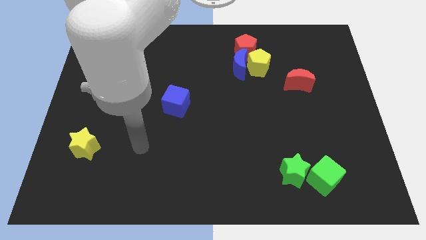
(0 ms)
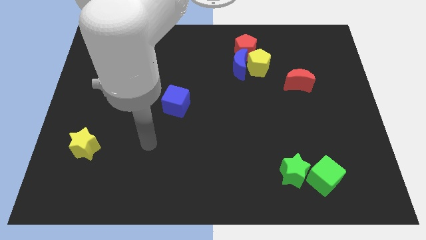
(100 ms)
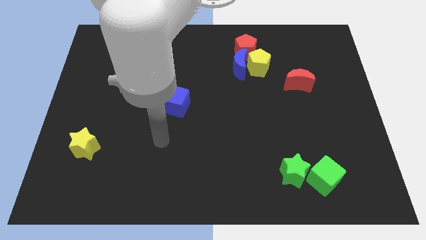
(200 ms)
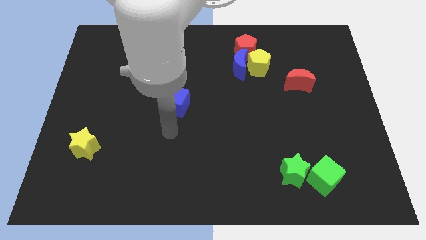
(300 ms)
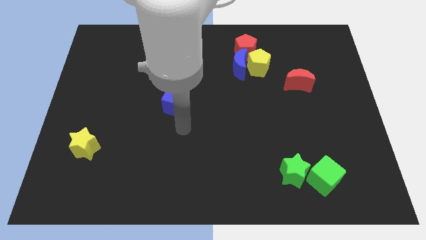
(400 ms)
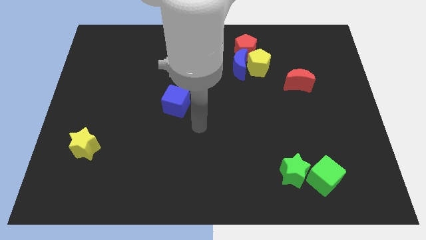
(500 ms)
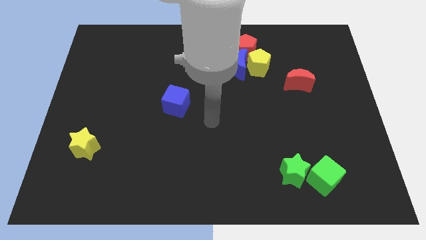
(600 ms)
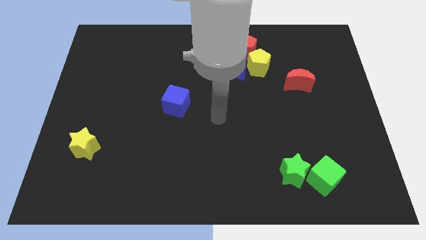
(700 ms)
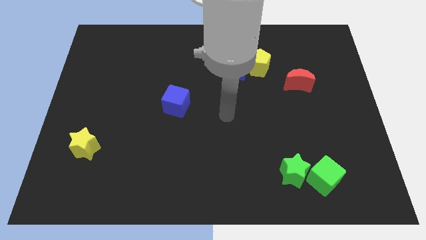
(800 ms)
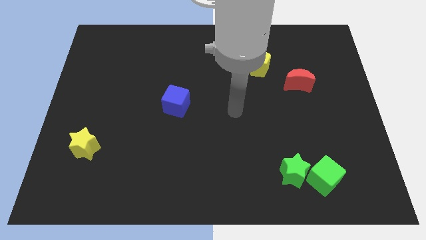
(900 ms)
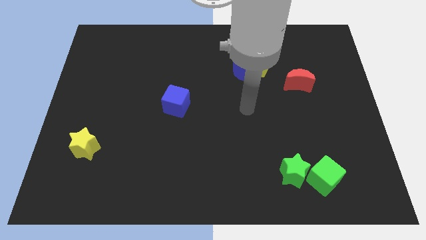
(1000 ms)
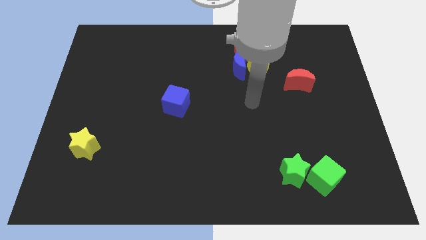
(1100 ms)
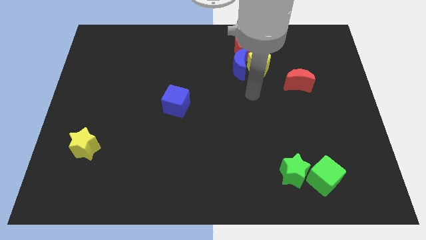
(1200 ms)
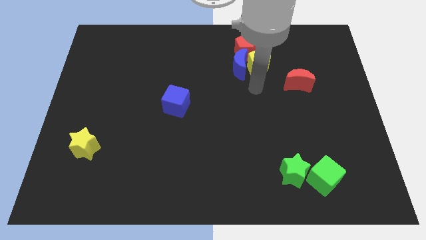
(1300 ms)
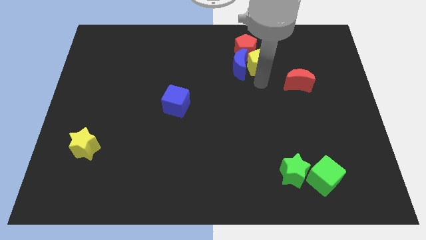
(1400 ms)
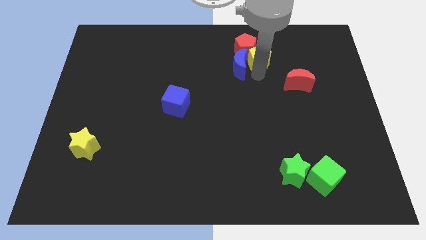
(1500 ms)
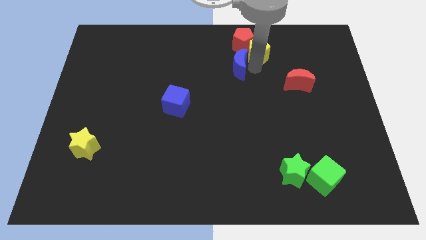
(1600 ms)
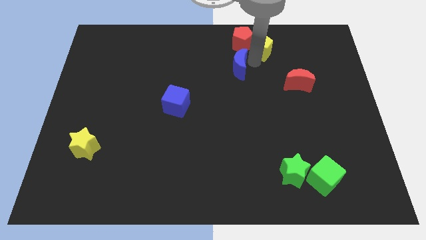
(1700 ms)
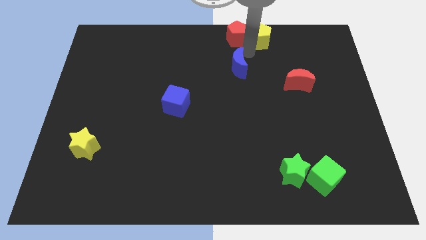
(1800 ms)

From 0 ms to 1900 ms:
move the blue moon away from the yellow pentagon and red pentagon

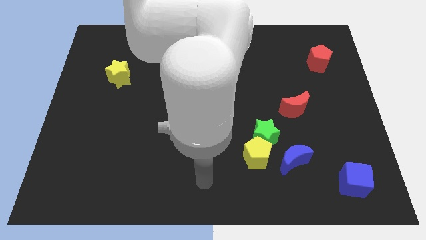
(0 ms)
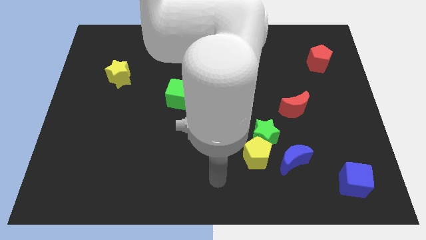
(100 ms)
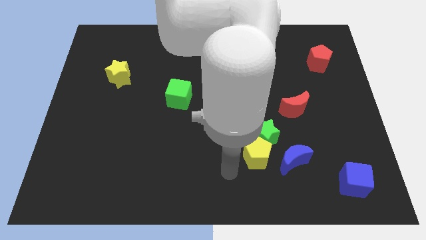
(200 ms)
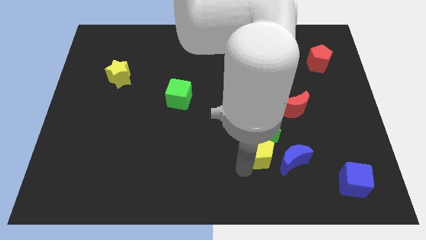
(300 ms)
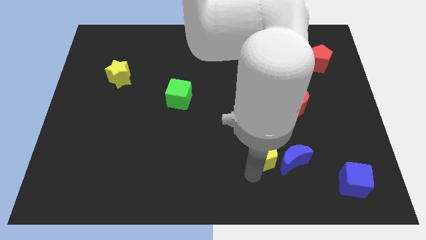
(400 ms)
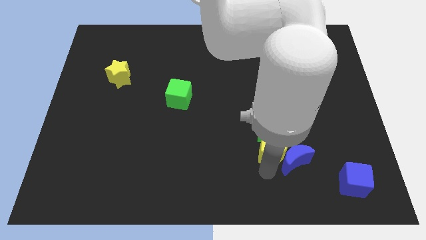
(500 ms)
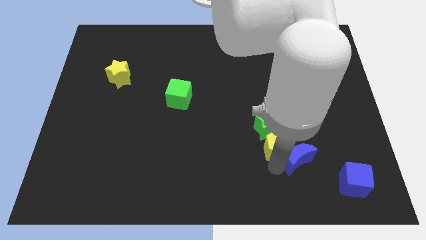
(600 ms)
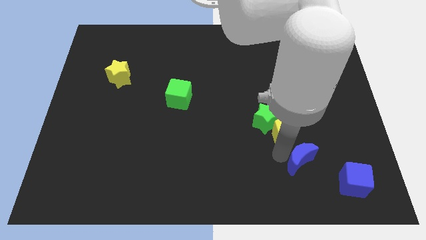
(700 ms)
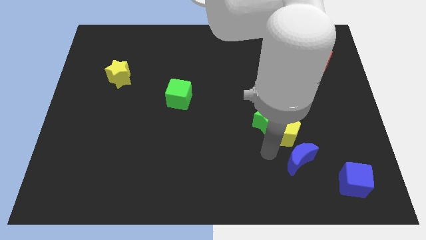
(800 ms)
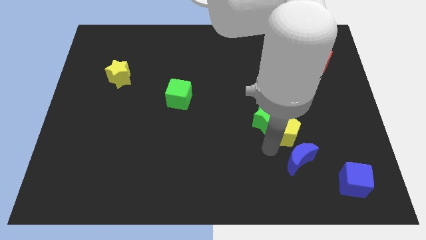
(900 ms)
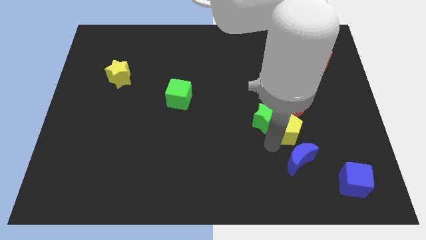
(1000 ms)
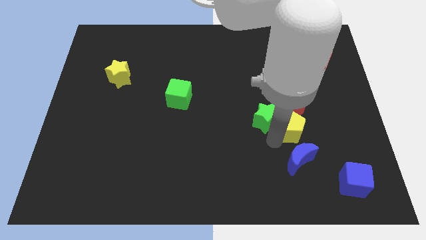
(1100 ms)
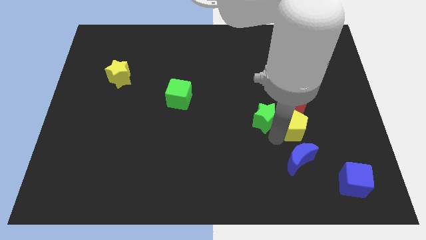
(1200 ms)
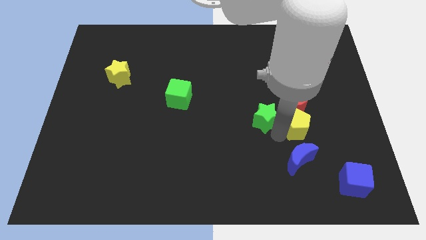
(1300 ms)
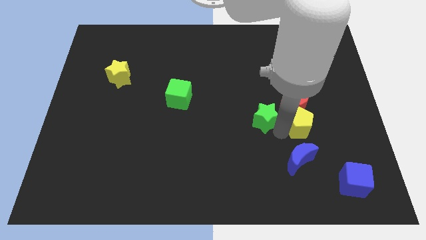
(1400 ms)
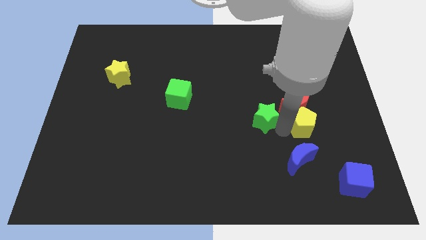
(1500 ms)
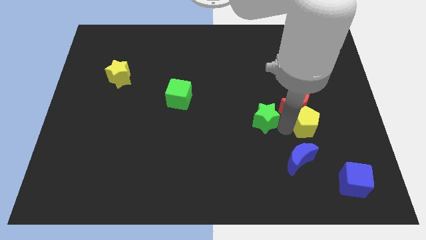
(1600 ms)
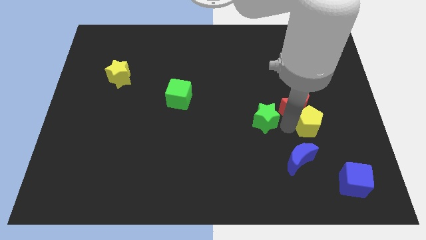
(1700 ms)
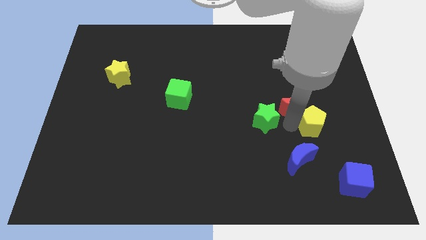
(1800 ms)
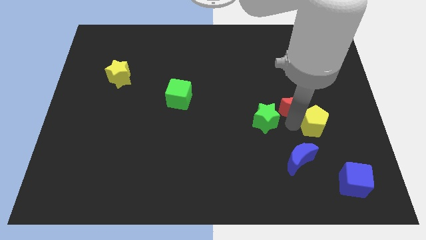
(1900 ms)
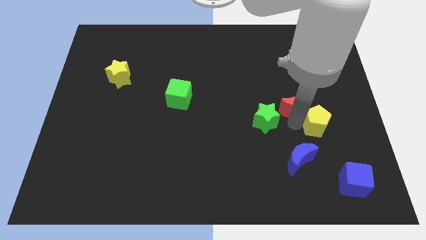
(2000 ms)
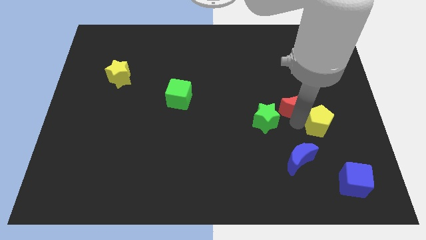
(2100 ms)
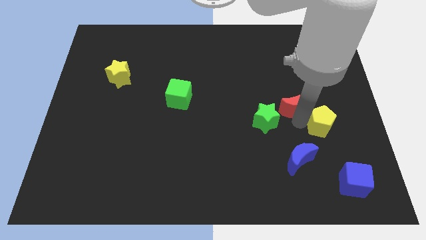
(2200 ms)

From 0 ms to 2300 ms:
move the yellow pentagon away from the green star and blue moon

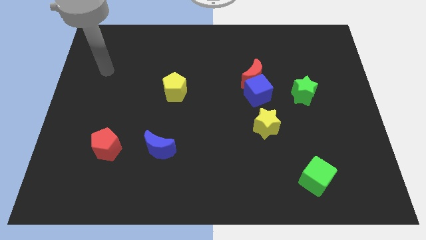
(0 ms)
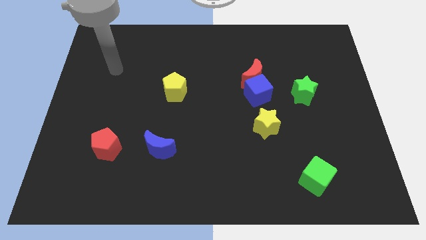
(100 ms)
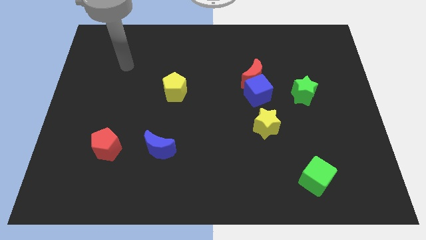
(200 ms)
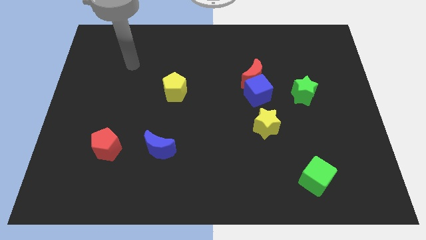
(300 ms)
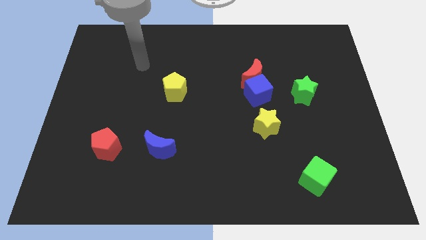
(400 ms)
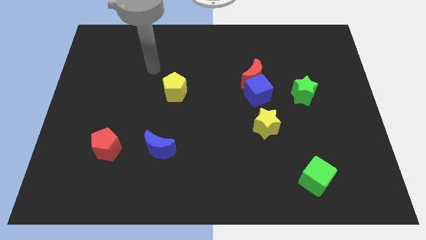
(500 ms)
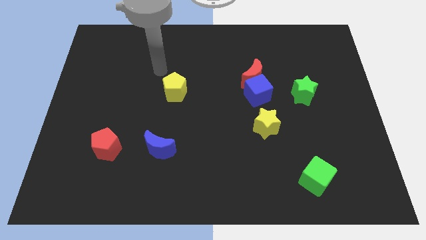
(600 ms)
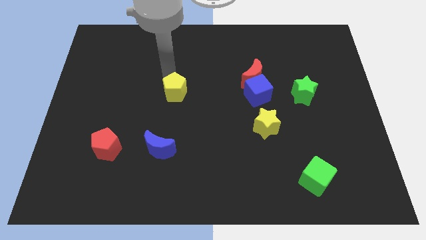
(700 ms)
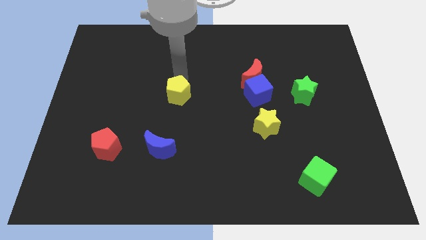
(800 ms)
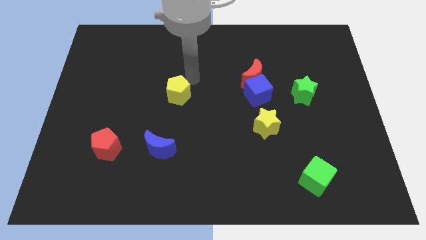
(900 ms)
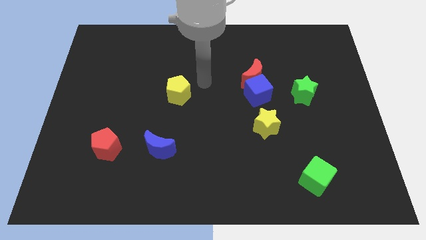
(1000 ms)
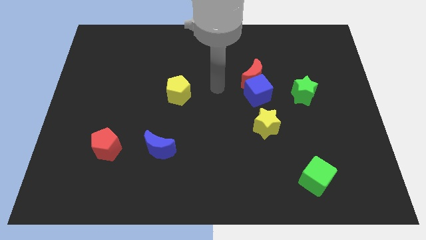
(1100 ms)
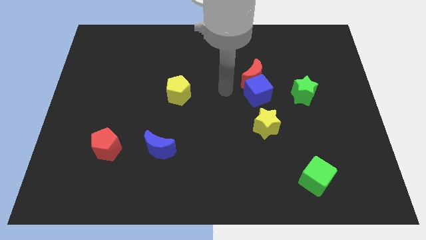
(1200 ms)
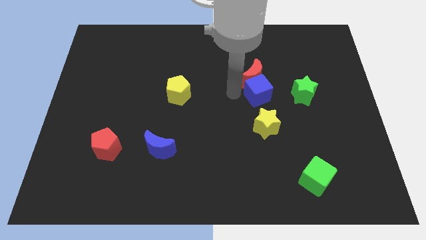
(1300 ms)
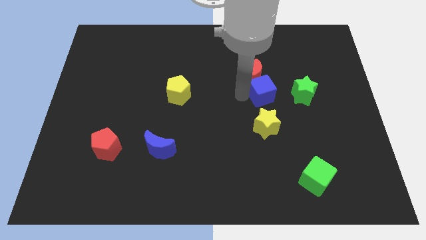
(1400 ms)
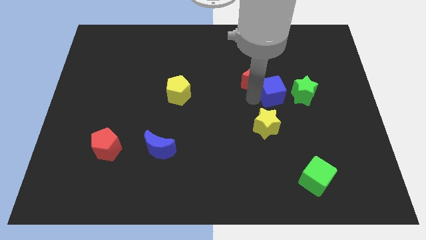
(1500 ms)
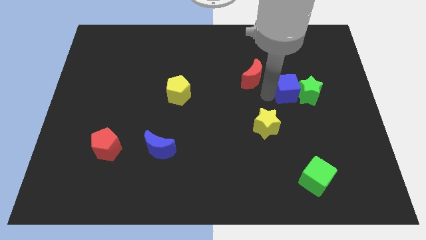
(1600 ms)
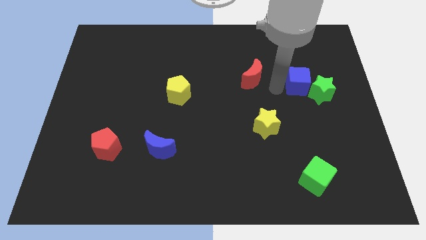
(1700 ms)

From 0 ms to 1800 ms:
move the red moon away from the blue cube

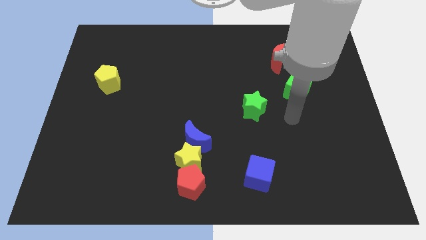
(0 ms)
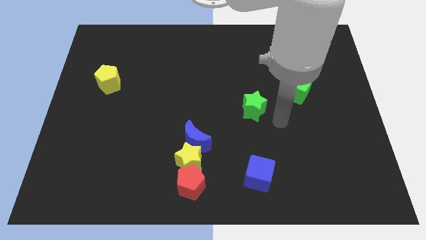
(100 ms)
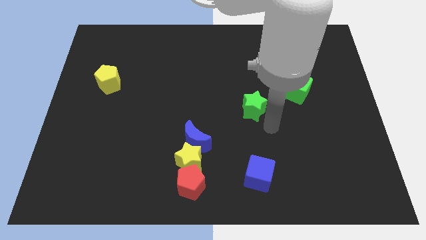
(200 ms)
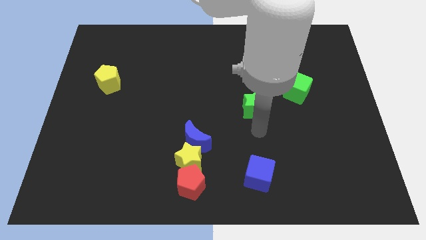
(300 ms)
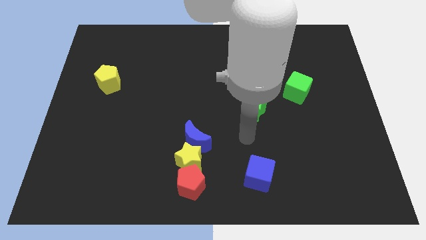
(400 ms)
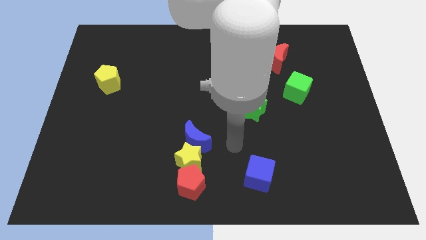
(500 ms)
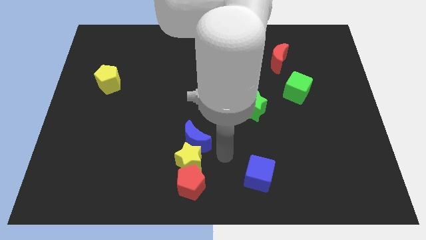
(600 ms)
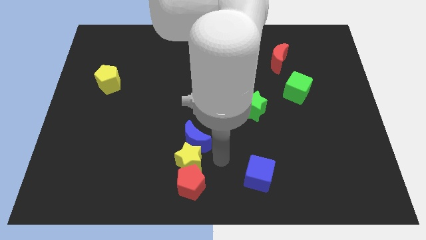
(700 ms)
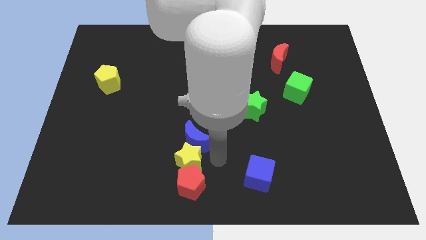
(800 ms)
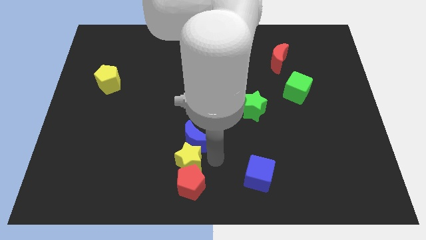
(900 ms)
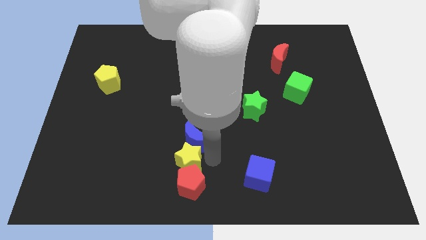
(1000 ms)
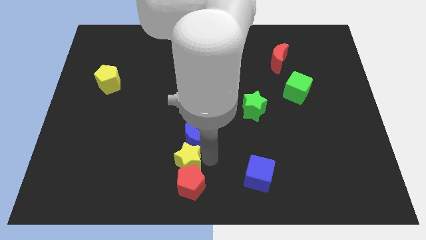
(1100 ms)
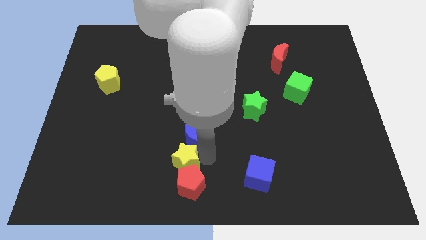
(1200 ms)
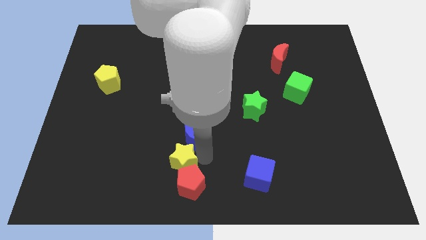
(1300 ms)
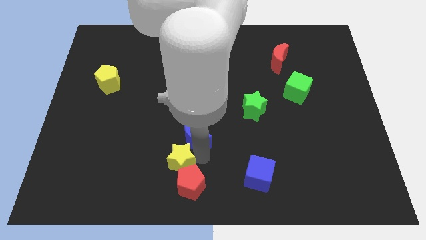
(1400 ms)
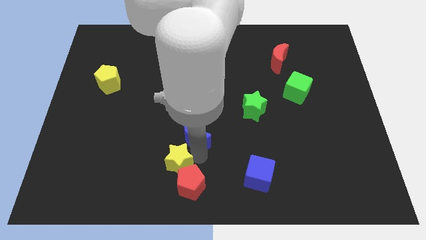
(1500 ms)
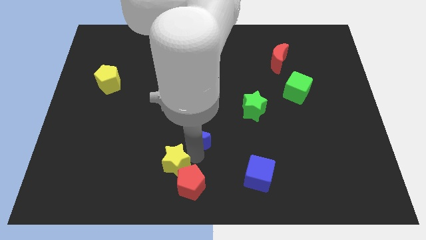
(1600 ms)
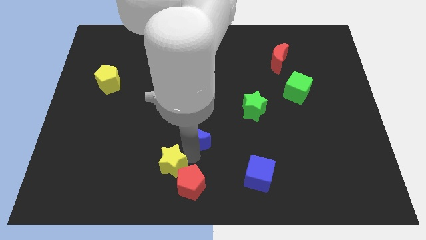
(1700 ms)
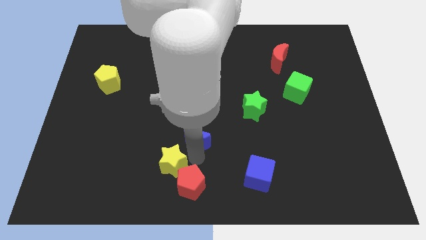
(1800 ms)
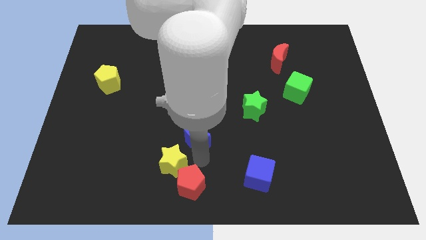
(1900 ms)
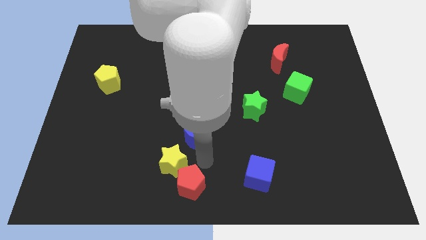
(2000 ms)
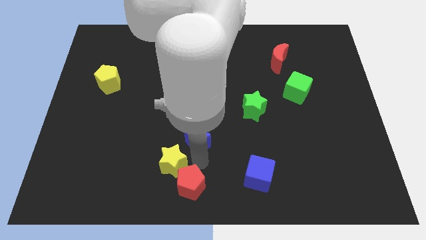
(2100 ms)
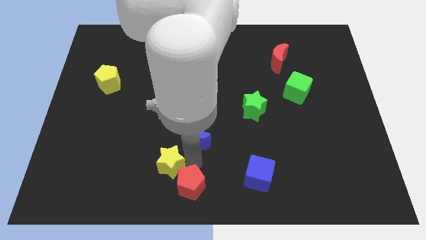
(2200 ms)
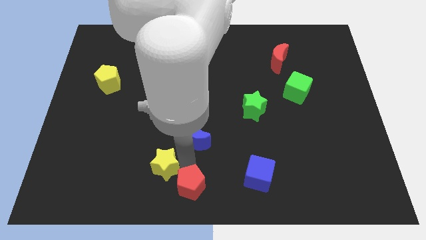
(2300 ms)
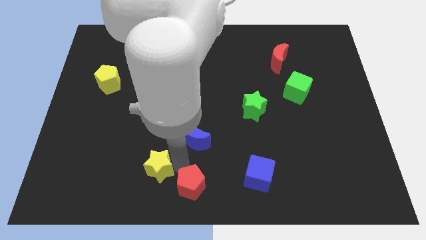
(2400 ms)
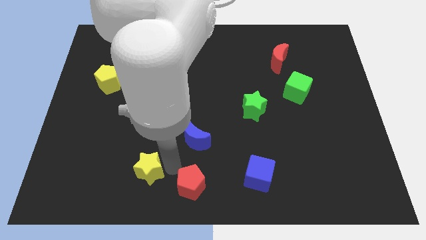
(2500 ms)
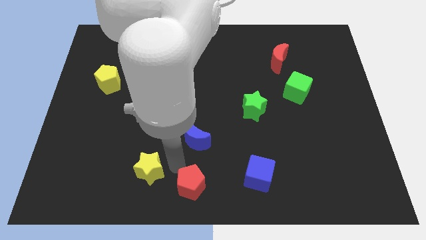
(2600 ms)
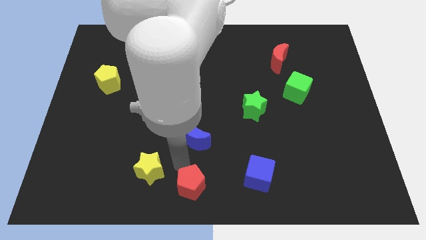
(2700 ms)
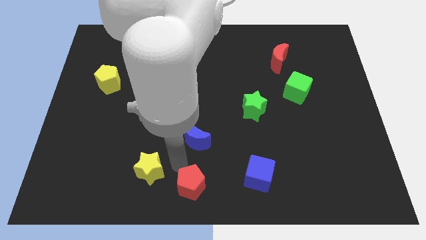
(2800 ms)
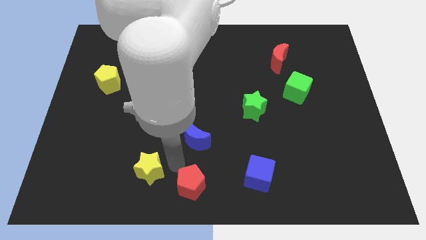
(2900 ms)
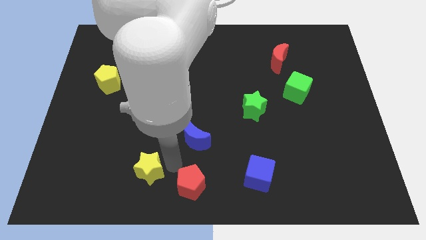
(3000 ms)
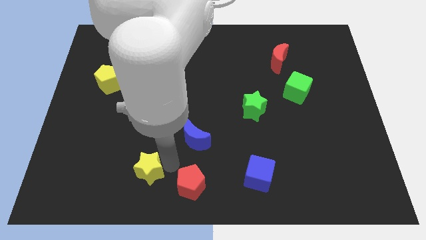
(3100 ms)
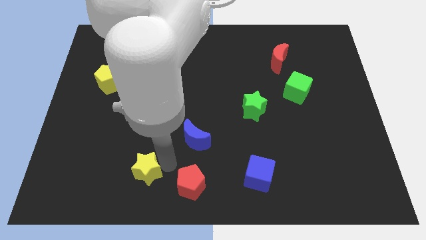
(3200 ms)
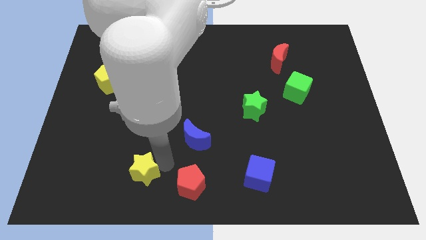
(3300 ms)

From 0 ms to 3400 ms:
move the yellow star away from the red pentagon and blue moon

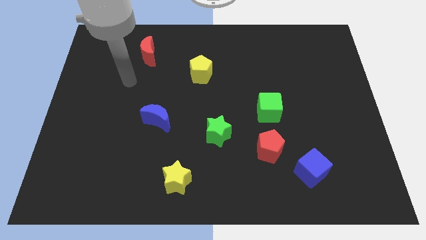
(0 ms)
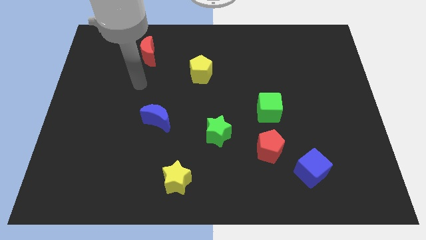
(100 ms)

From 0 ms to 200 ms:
move the red pentagon away from the blue cube
